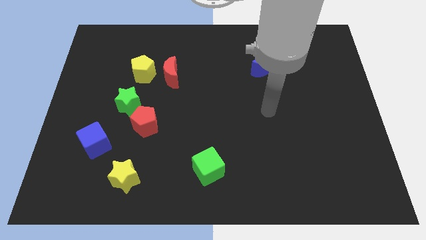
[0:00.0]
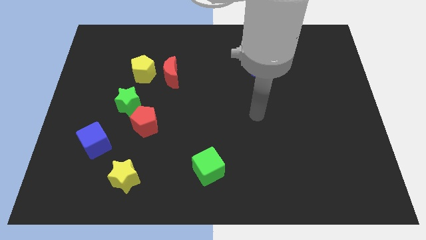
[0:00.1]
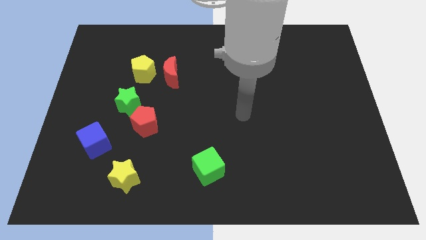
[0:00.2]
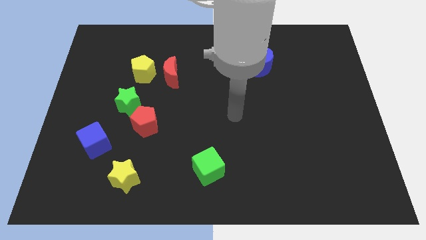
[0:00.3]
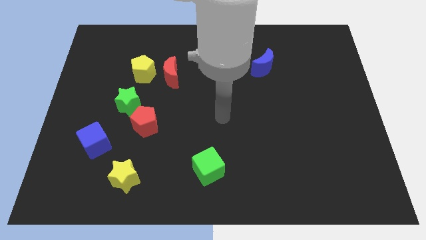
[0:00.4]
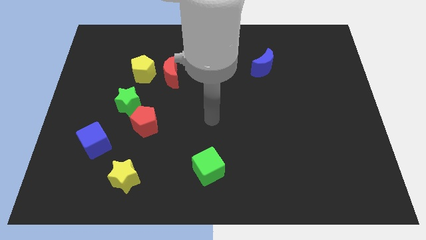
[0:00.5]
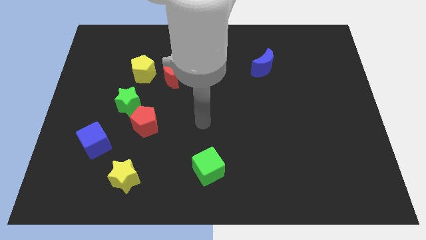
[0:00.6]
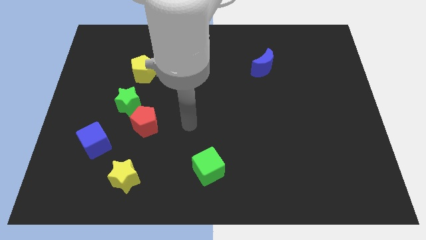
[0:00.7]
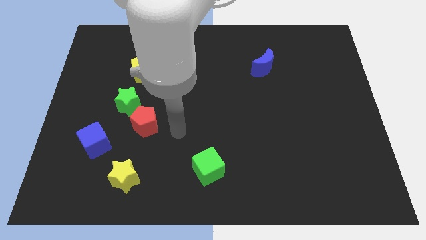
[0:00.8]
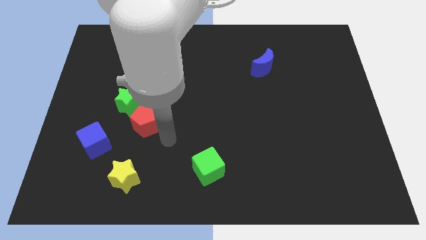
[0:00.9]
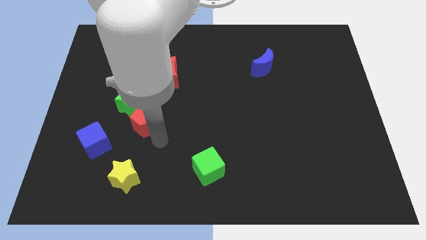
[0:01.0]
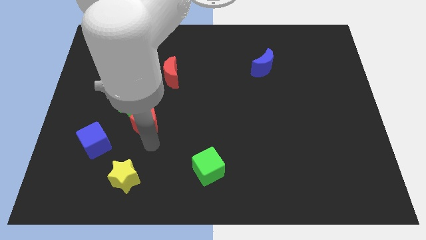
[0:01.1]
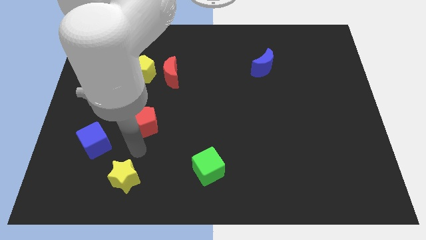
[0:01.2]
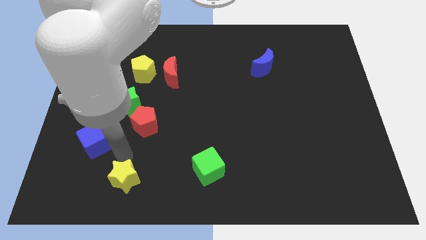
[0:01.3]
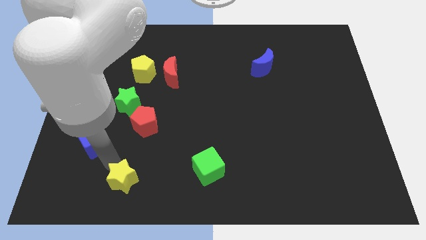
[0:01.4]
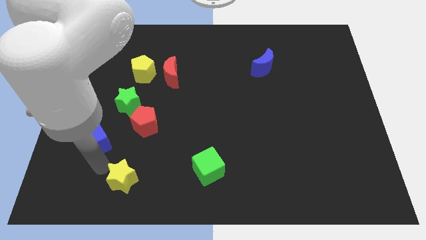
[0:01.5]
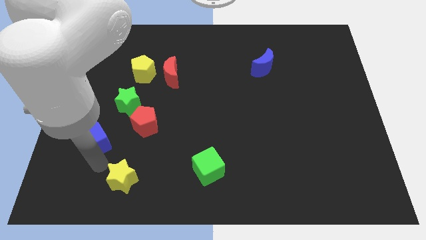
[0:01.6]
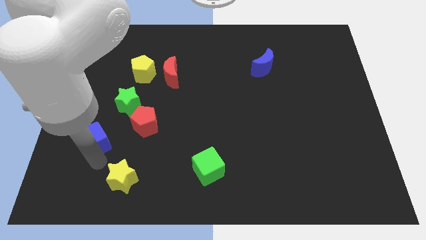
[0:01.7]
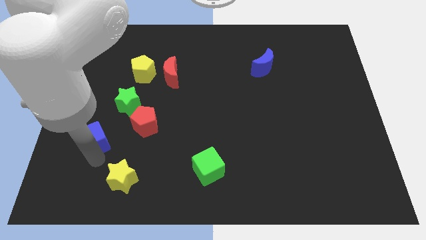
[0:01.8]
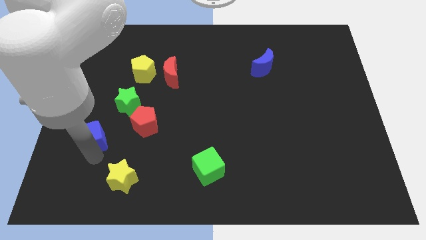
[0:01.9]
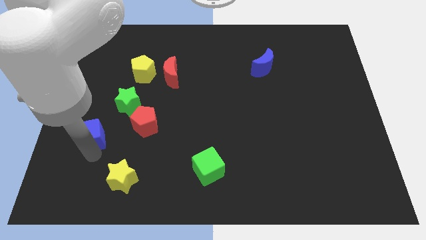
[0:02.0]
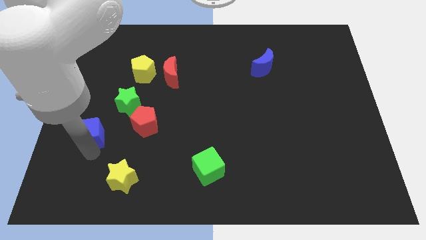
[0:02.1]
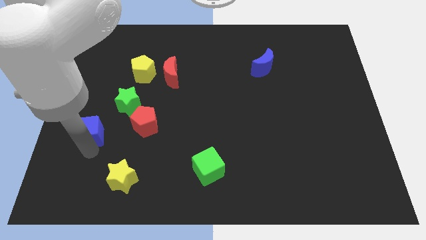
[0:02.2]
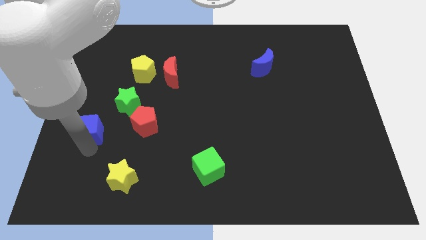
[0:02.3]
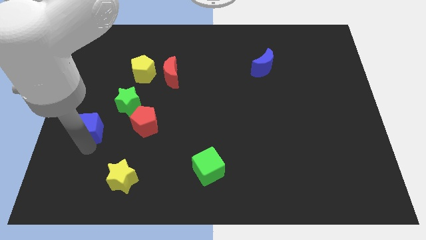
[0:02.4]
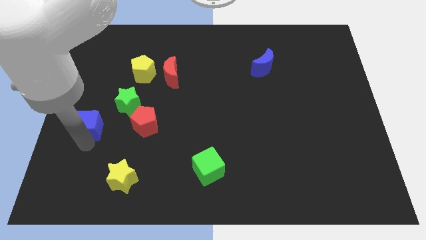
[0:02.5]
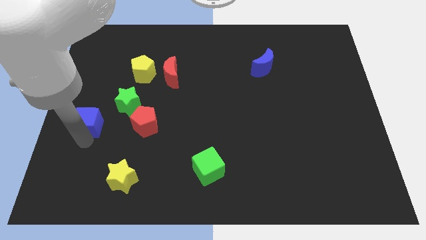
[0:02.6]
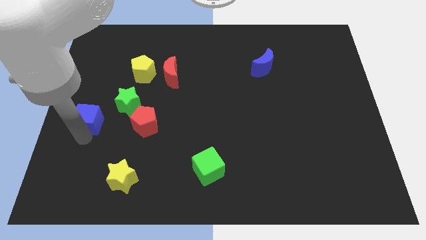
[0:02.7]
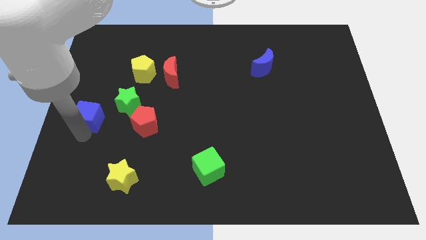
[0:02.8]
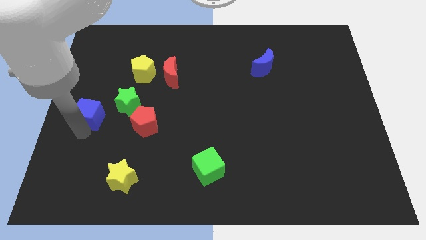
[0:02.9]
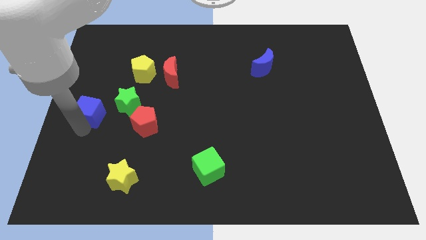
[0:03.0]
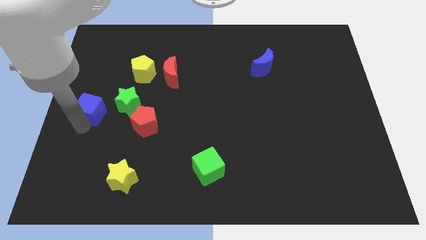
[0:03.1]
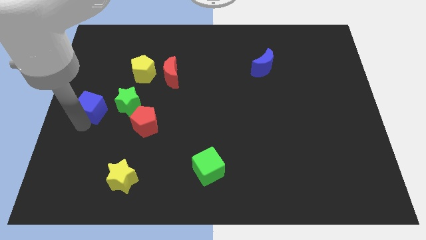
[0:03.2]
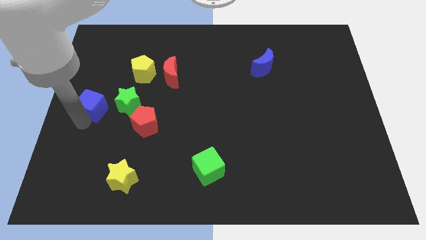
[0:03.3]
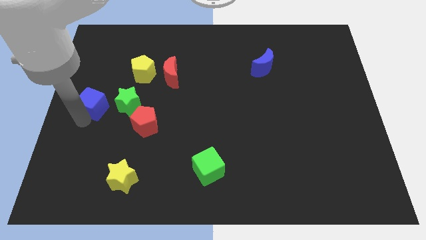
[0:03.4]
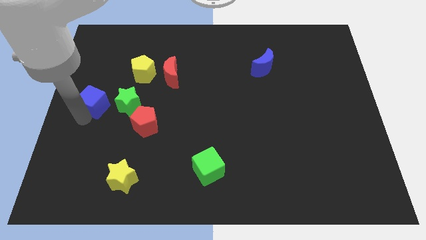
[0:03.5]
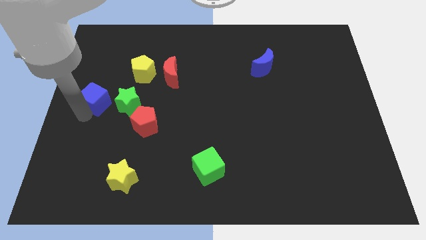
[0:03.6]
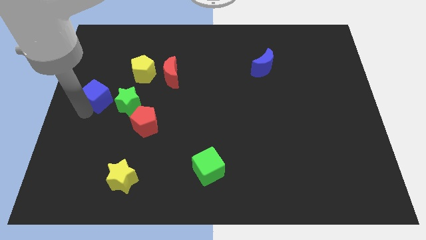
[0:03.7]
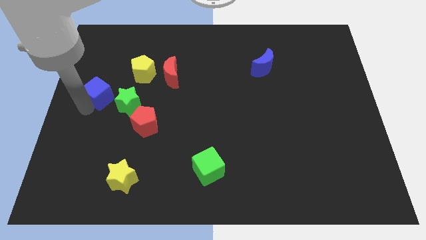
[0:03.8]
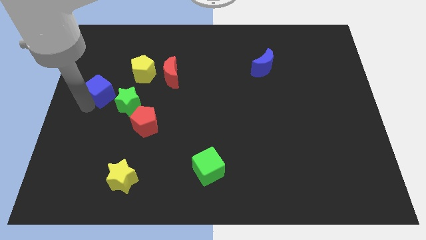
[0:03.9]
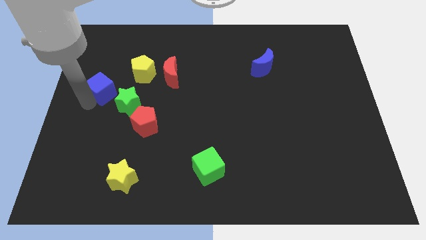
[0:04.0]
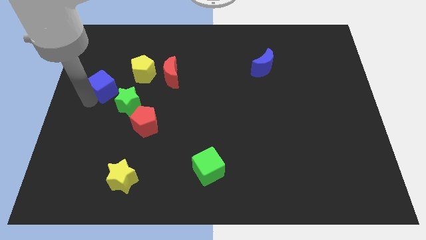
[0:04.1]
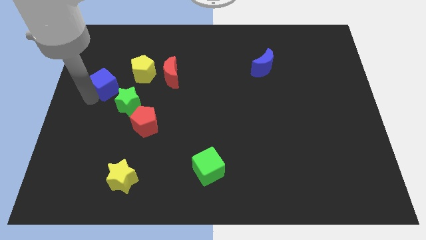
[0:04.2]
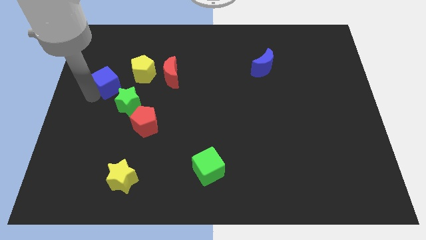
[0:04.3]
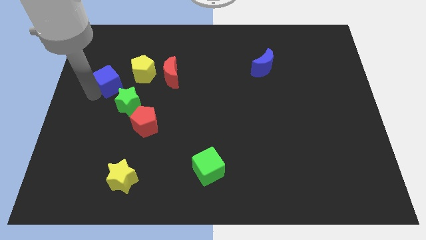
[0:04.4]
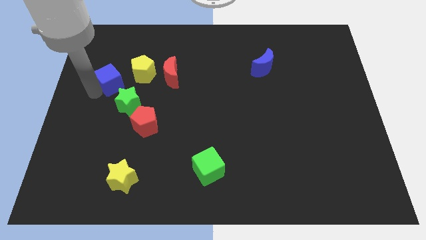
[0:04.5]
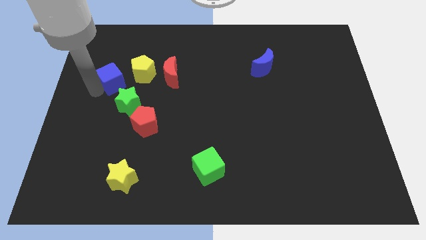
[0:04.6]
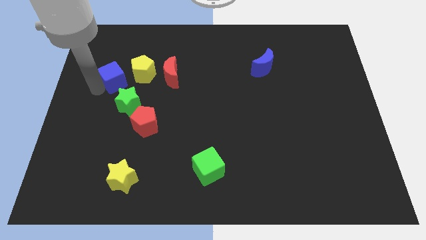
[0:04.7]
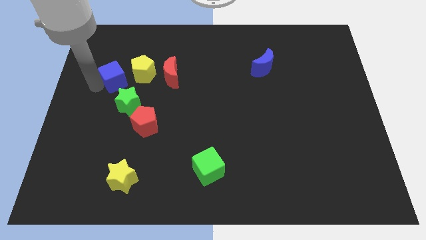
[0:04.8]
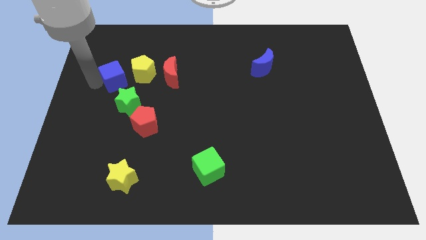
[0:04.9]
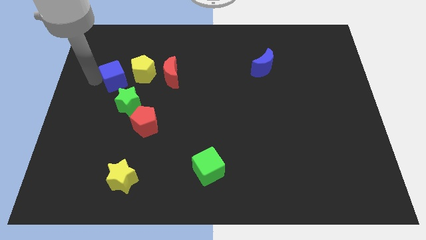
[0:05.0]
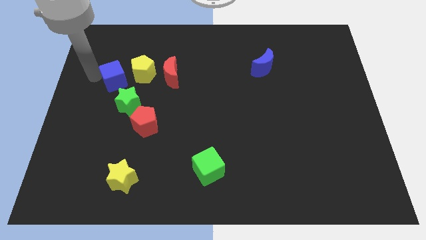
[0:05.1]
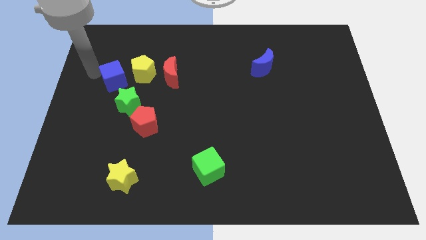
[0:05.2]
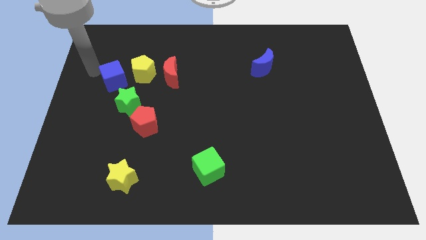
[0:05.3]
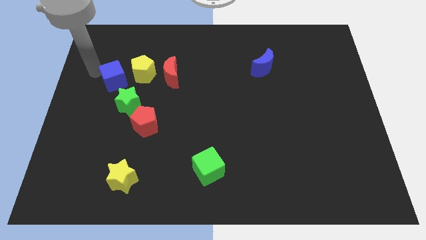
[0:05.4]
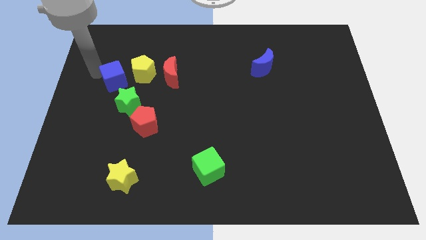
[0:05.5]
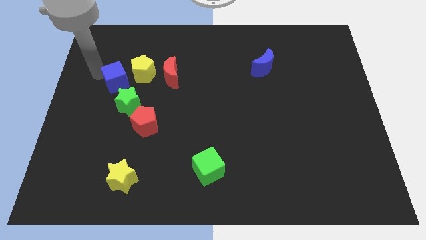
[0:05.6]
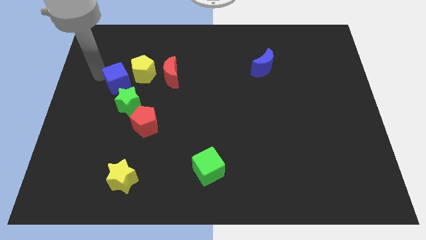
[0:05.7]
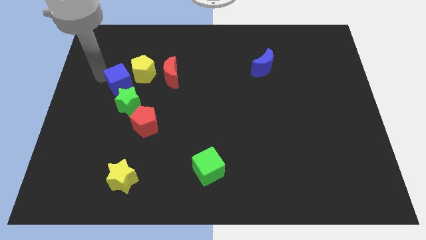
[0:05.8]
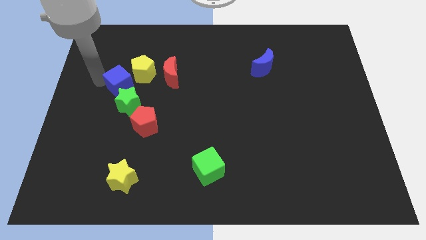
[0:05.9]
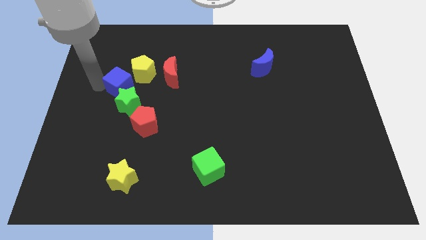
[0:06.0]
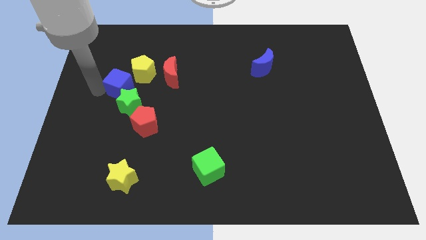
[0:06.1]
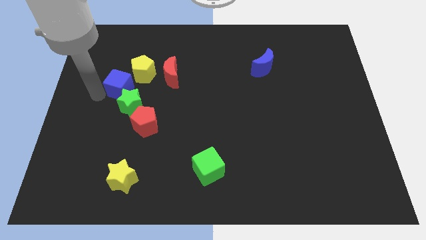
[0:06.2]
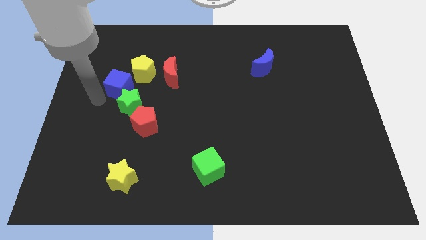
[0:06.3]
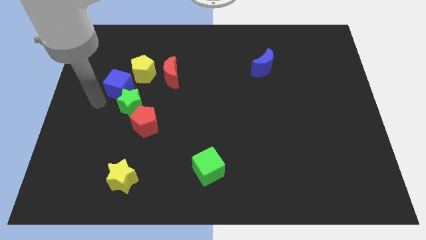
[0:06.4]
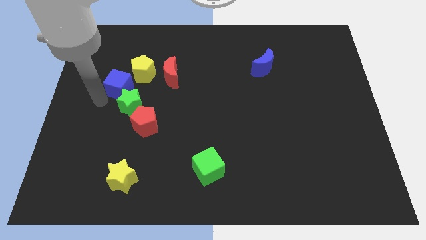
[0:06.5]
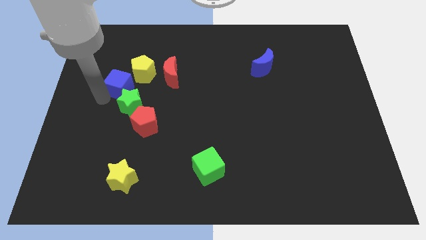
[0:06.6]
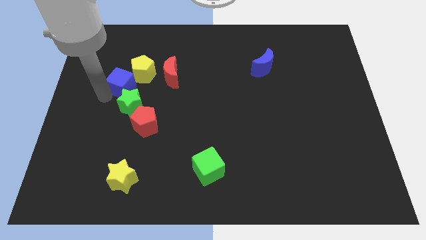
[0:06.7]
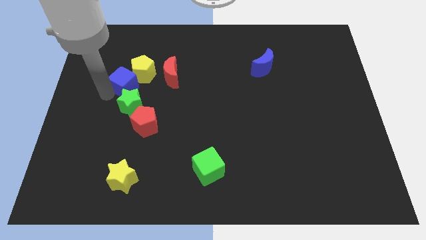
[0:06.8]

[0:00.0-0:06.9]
put the blue cube close to the yellow pentagon
